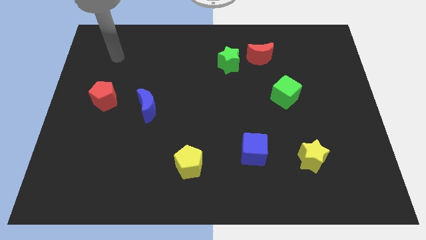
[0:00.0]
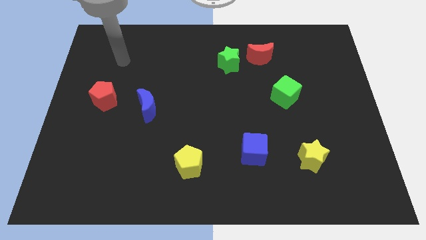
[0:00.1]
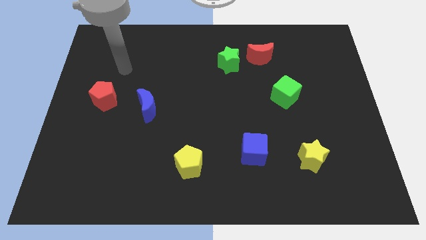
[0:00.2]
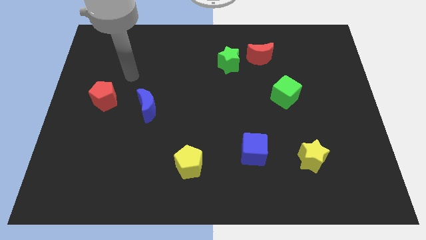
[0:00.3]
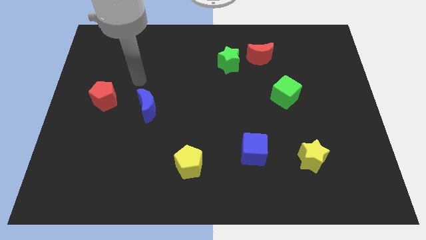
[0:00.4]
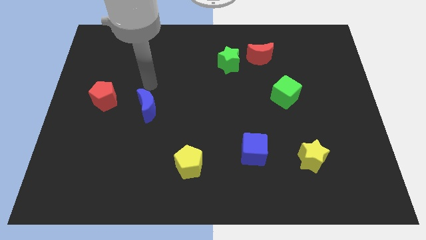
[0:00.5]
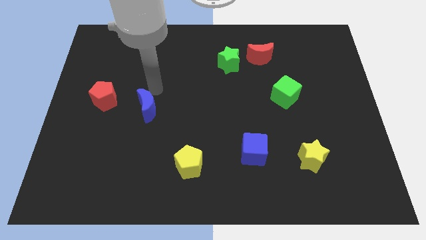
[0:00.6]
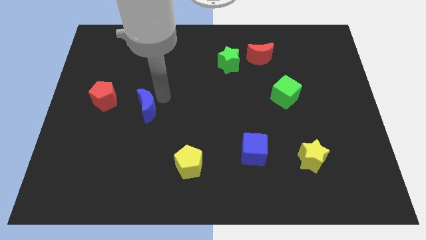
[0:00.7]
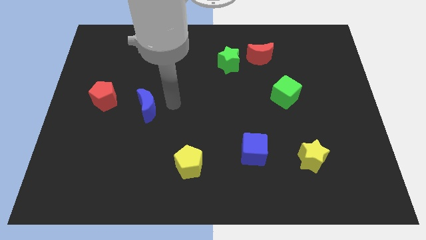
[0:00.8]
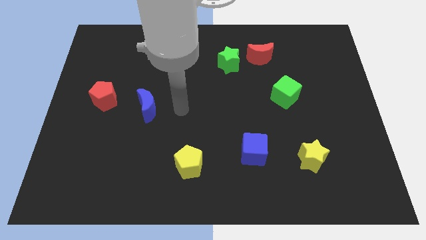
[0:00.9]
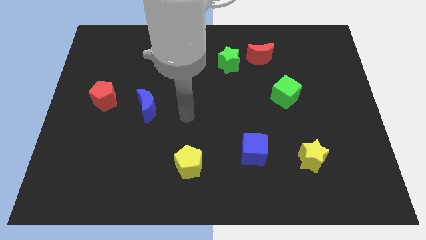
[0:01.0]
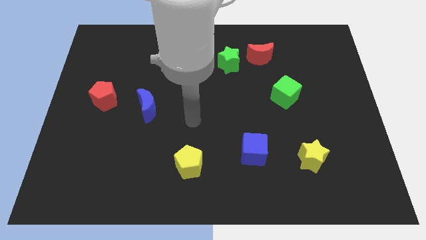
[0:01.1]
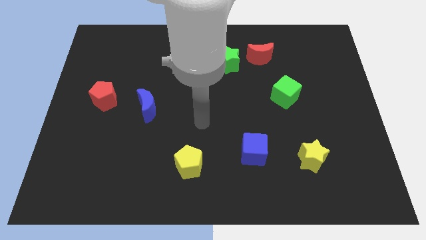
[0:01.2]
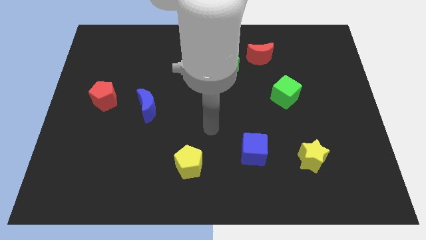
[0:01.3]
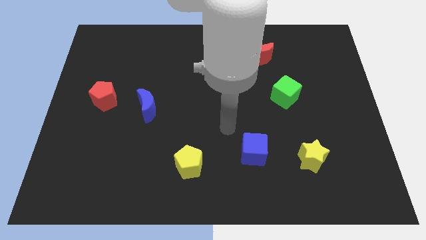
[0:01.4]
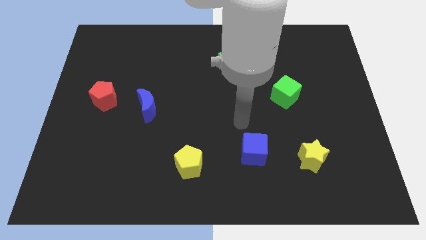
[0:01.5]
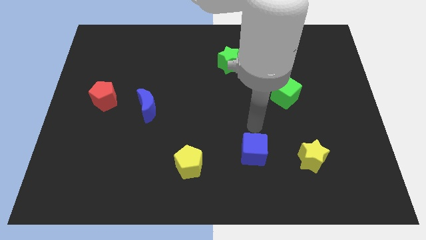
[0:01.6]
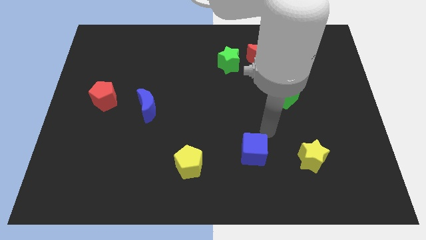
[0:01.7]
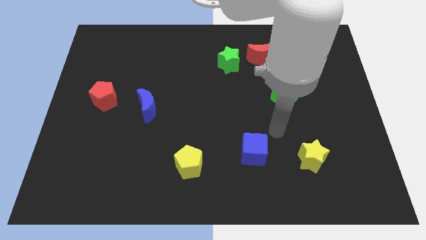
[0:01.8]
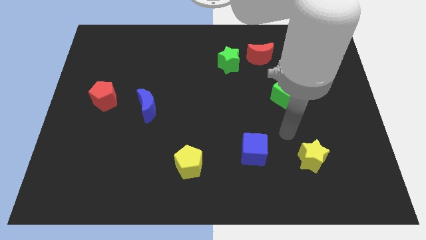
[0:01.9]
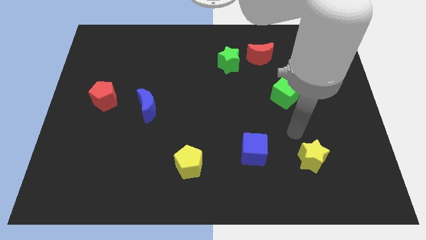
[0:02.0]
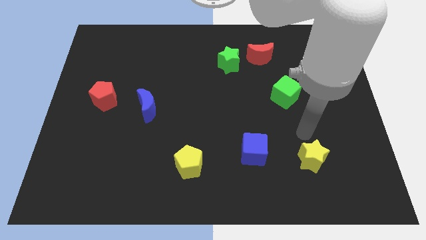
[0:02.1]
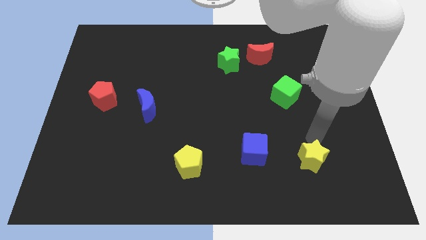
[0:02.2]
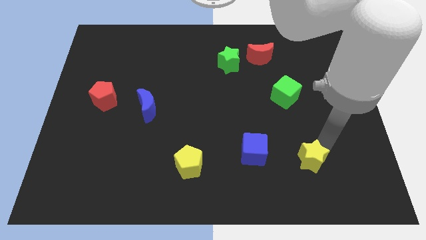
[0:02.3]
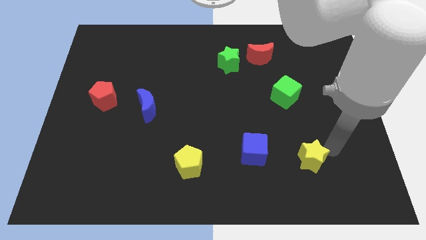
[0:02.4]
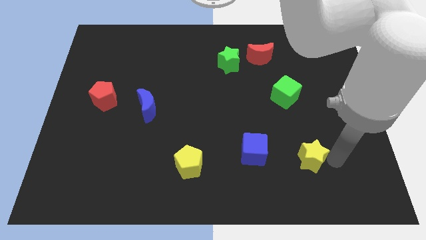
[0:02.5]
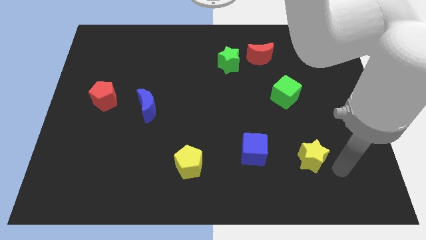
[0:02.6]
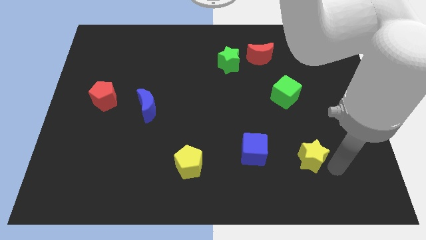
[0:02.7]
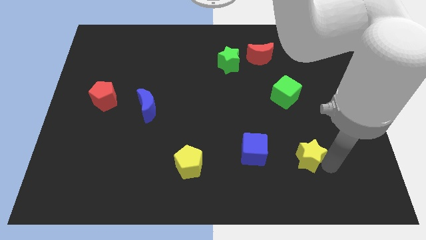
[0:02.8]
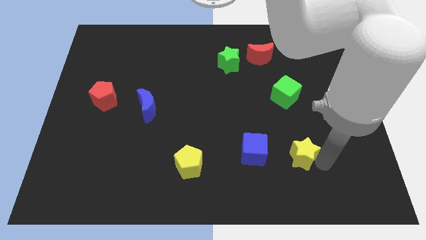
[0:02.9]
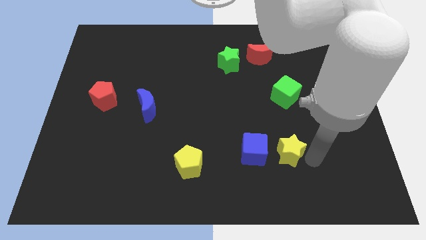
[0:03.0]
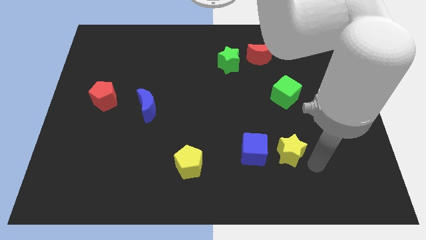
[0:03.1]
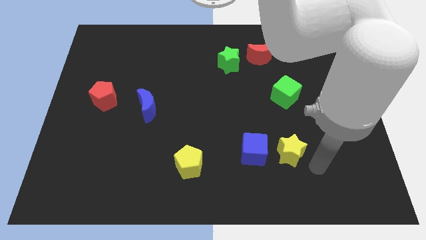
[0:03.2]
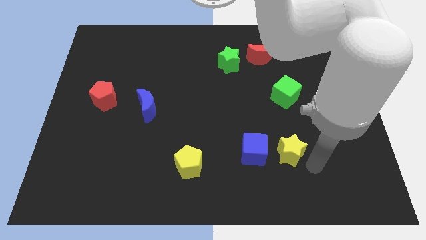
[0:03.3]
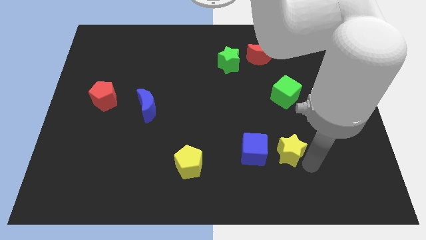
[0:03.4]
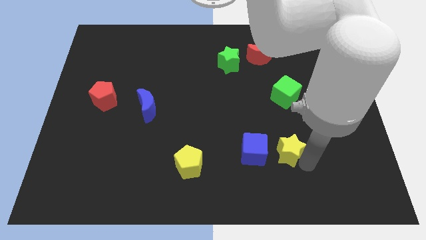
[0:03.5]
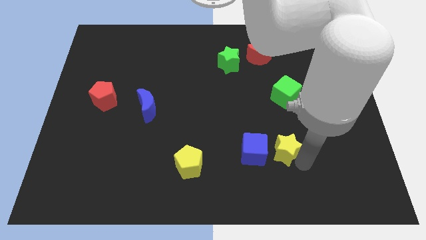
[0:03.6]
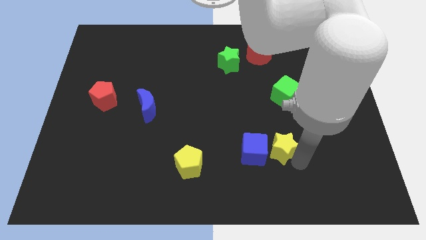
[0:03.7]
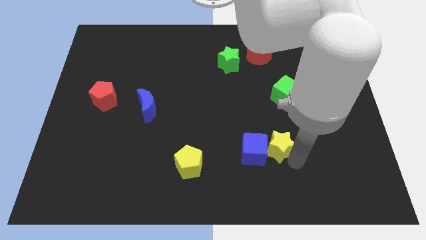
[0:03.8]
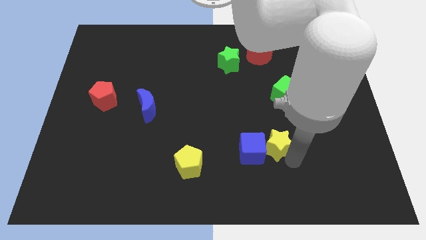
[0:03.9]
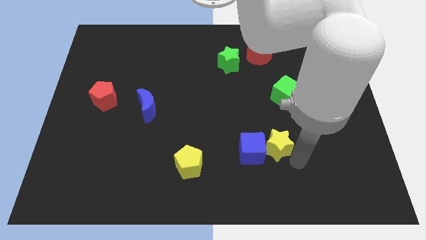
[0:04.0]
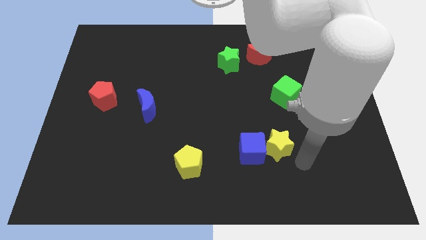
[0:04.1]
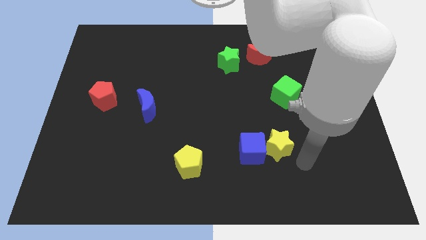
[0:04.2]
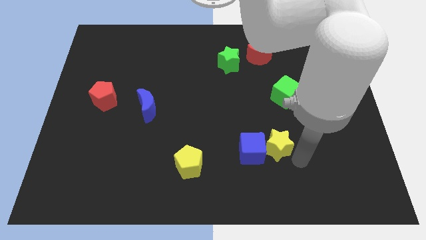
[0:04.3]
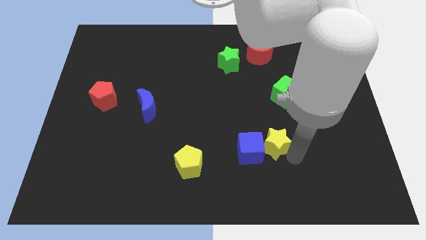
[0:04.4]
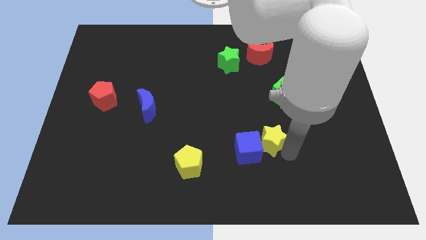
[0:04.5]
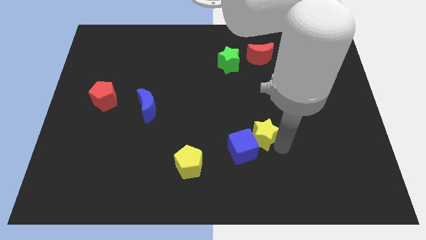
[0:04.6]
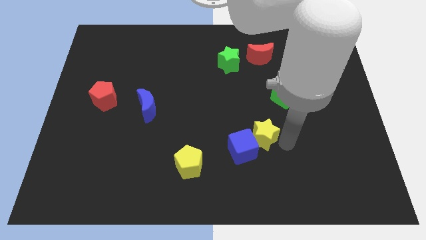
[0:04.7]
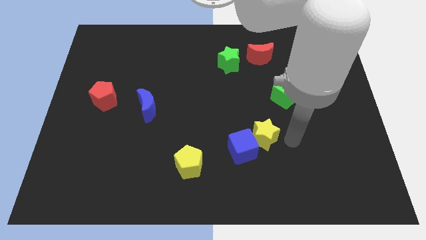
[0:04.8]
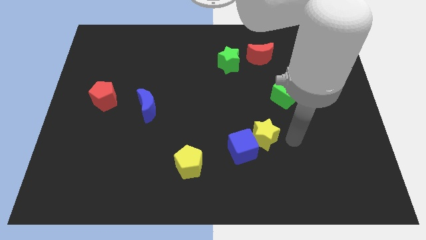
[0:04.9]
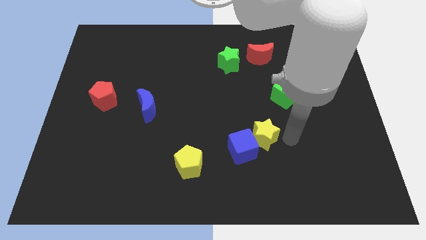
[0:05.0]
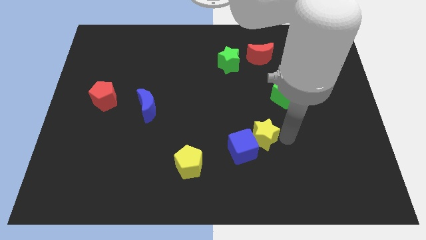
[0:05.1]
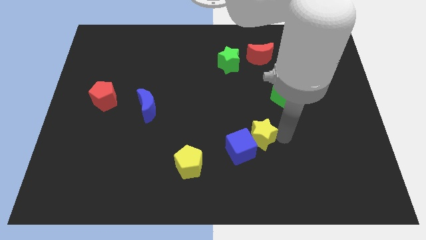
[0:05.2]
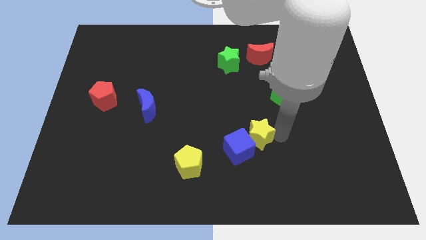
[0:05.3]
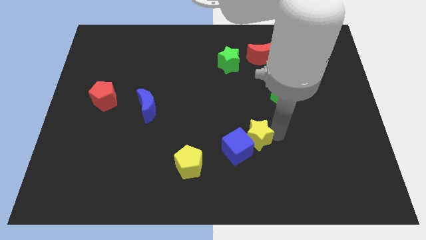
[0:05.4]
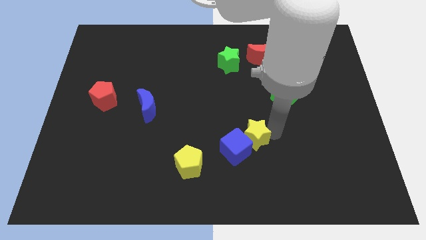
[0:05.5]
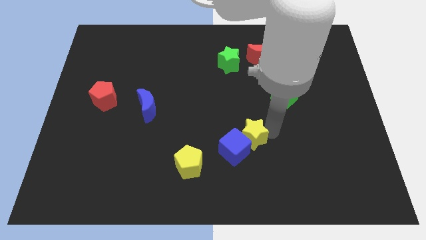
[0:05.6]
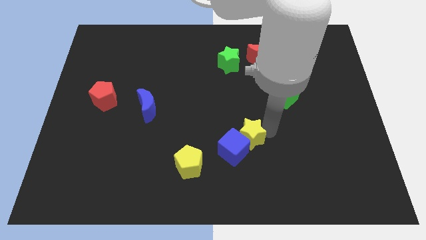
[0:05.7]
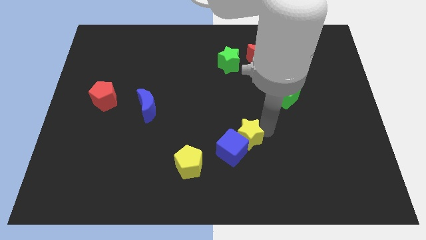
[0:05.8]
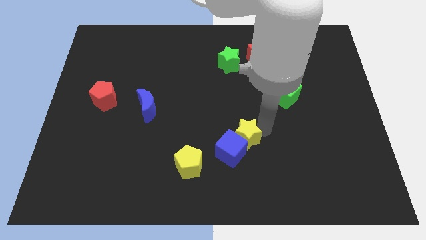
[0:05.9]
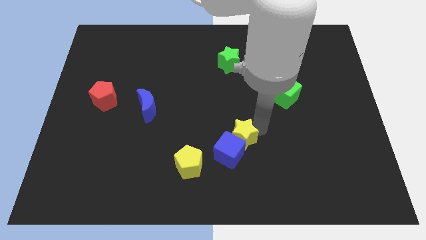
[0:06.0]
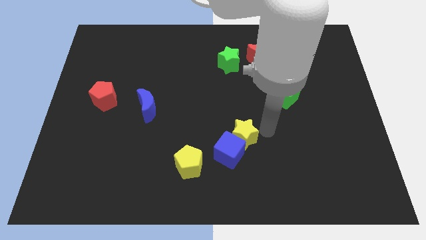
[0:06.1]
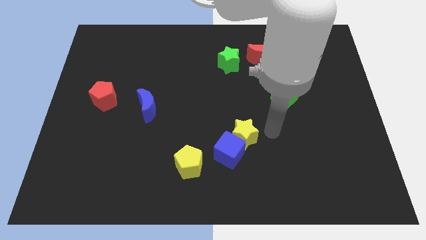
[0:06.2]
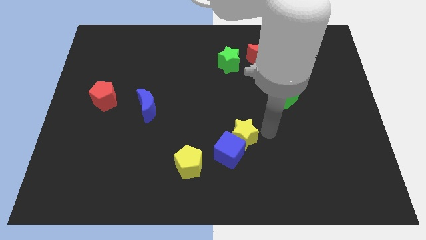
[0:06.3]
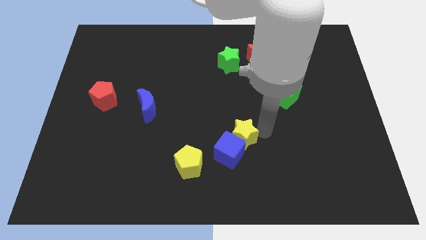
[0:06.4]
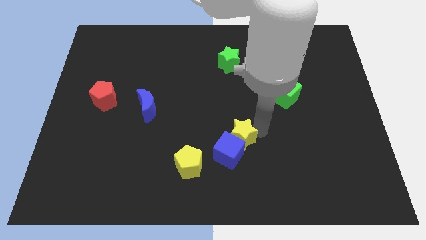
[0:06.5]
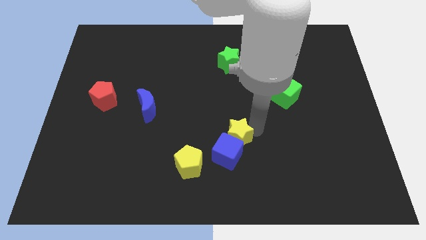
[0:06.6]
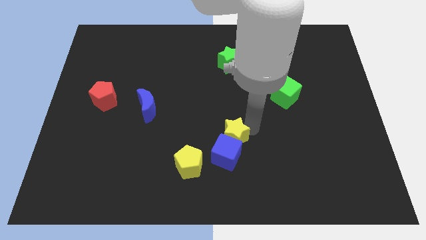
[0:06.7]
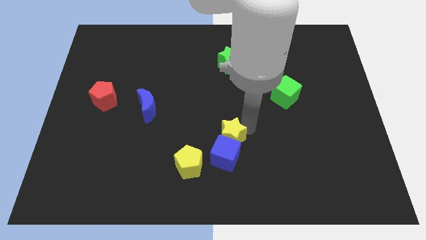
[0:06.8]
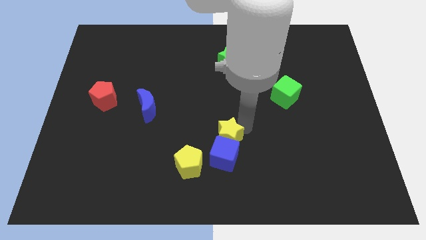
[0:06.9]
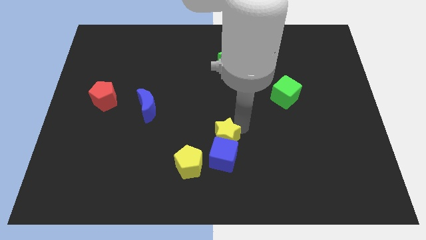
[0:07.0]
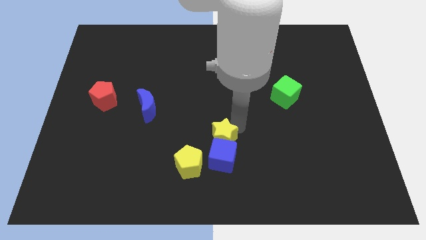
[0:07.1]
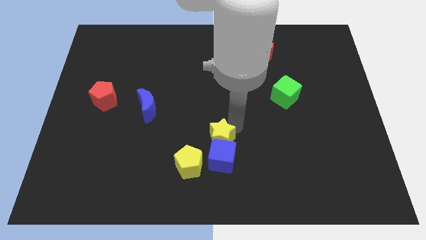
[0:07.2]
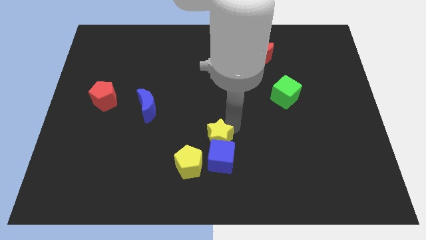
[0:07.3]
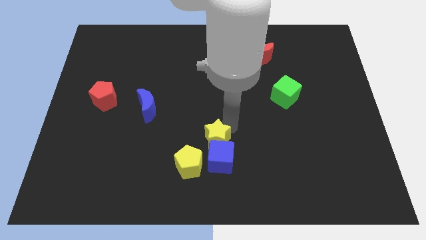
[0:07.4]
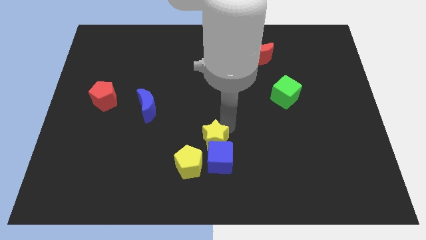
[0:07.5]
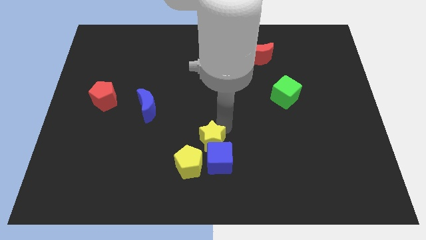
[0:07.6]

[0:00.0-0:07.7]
push the yellow star to the left
